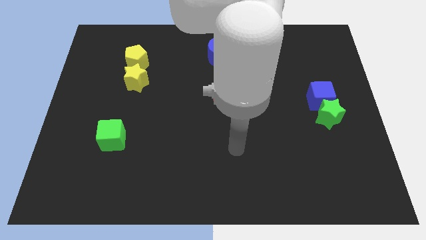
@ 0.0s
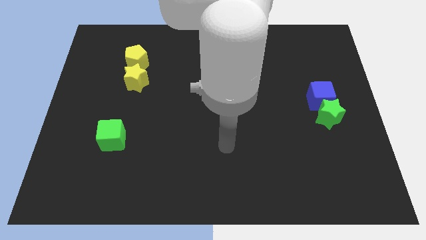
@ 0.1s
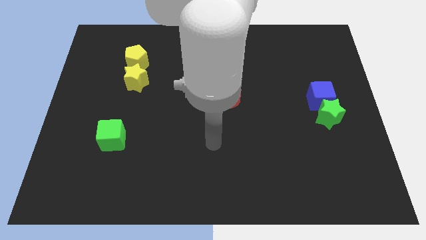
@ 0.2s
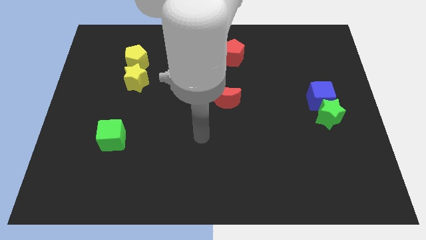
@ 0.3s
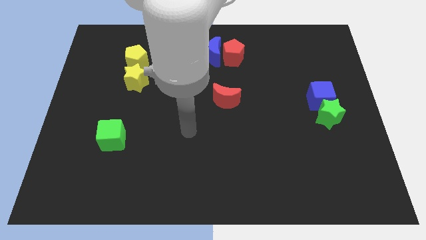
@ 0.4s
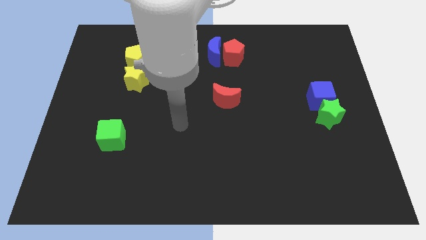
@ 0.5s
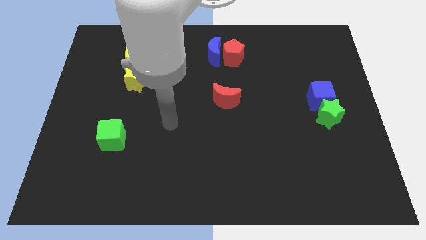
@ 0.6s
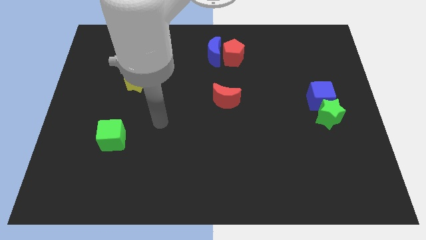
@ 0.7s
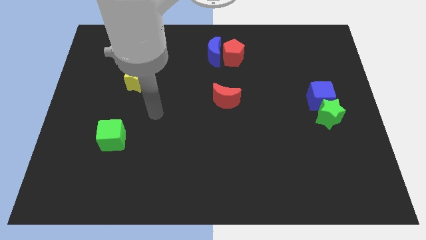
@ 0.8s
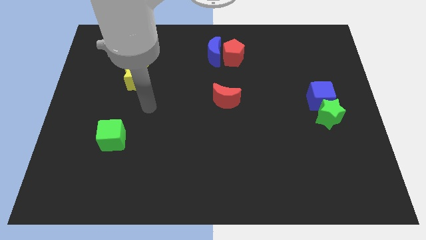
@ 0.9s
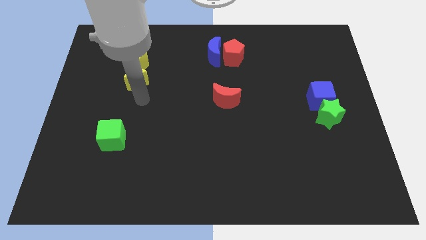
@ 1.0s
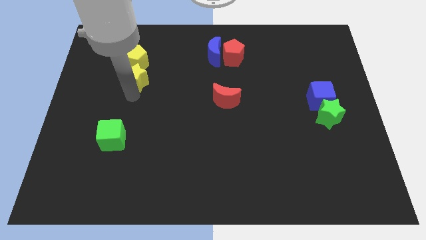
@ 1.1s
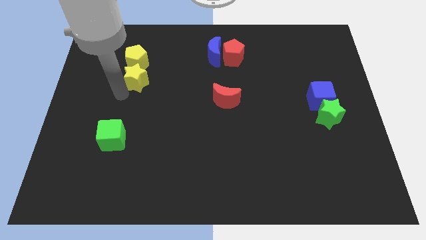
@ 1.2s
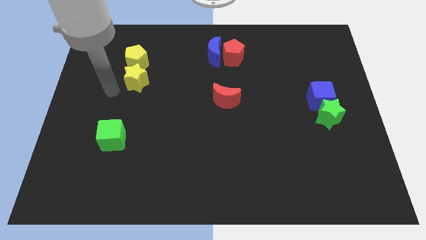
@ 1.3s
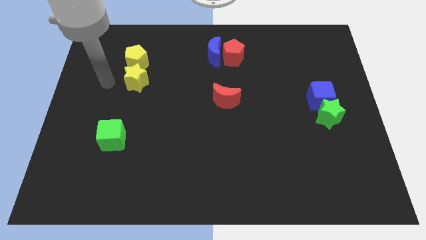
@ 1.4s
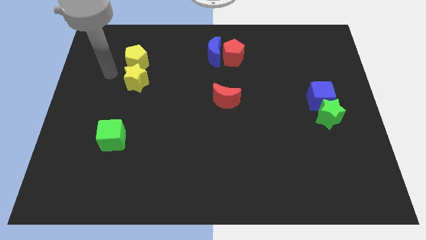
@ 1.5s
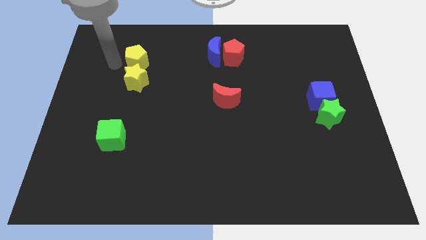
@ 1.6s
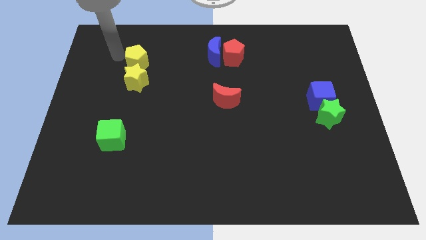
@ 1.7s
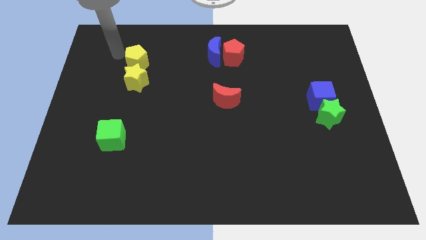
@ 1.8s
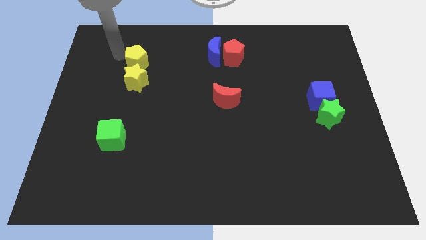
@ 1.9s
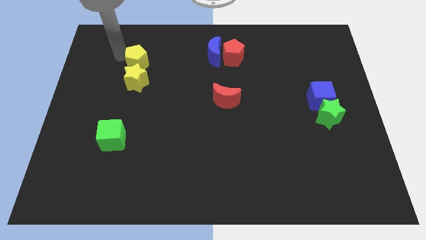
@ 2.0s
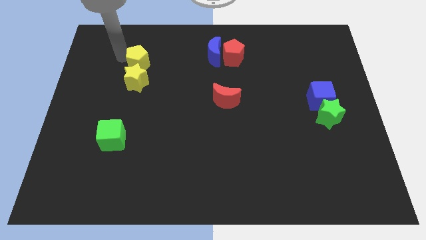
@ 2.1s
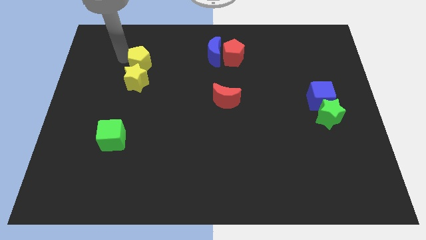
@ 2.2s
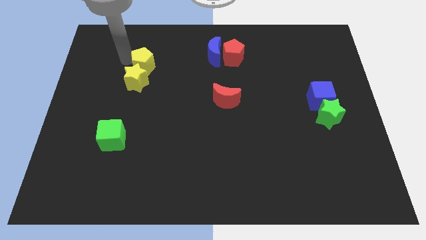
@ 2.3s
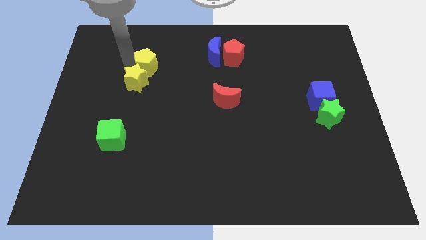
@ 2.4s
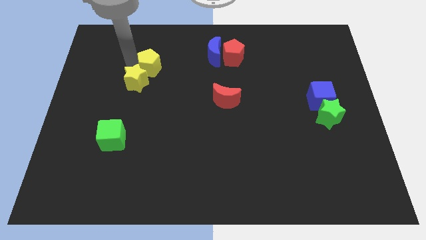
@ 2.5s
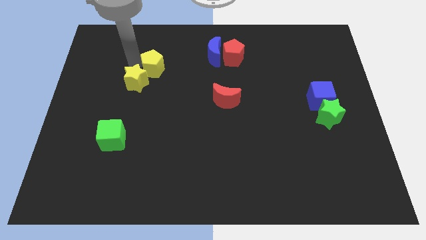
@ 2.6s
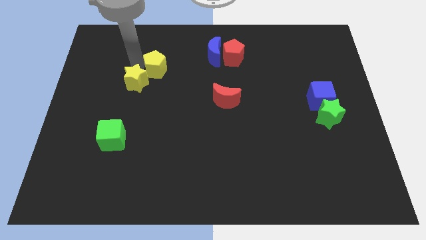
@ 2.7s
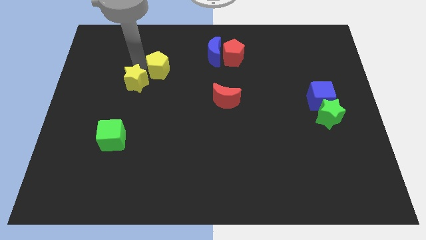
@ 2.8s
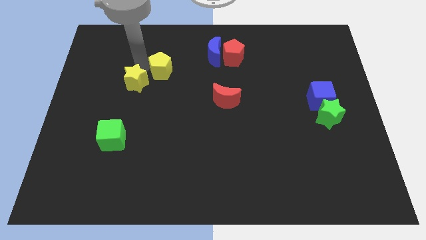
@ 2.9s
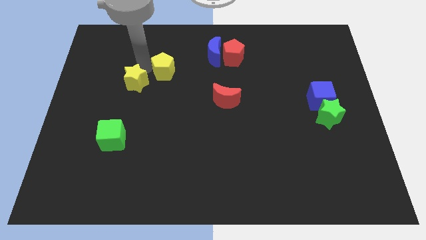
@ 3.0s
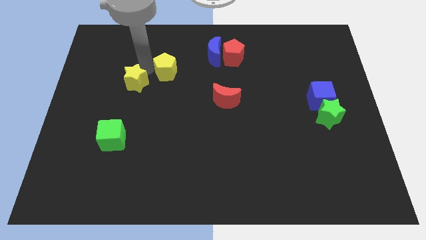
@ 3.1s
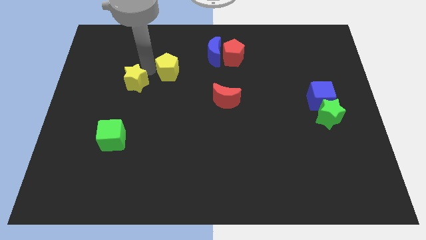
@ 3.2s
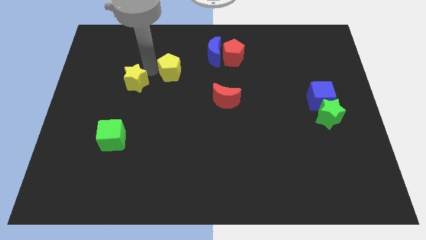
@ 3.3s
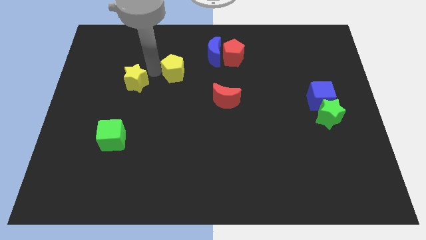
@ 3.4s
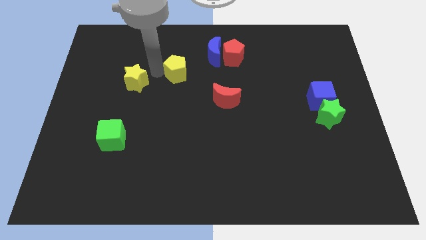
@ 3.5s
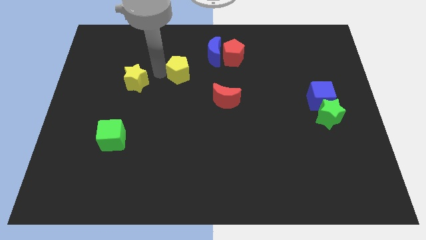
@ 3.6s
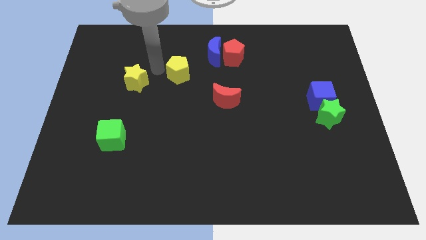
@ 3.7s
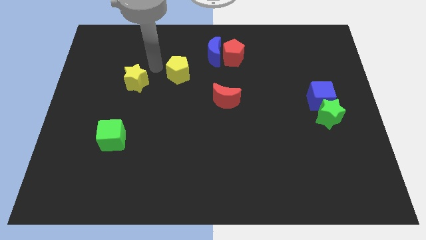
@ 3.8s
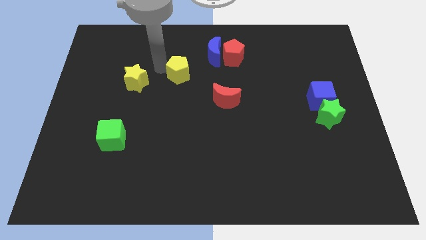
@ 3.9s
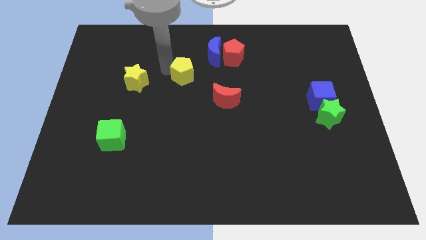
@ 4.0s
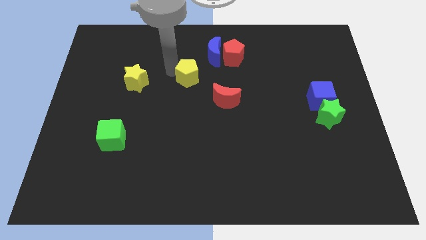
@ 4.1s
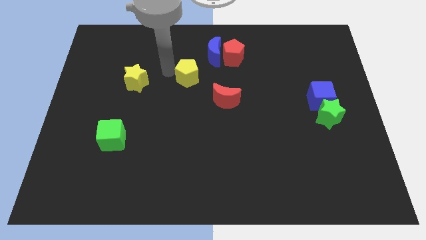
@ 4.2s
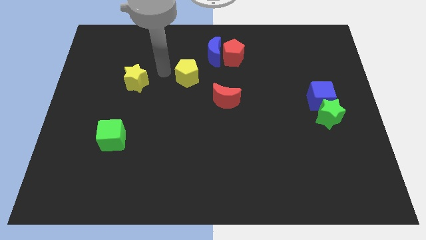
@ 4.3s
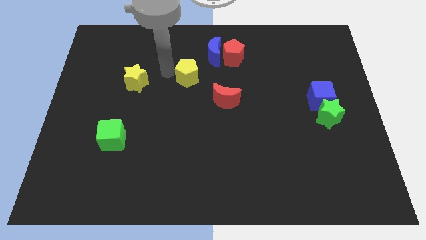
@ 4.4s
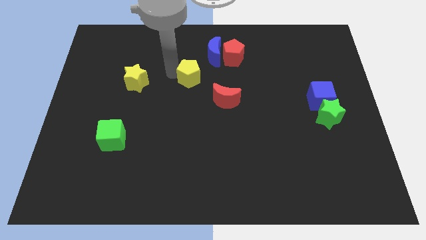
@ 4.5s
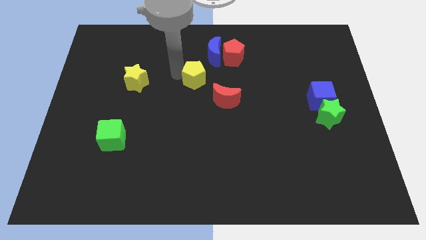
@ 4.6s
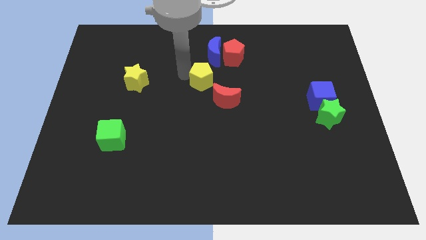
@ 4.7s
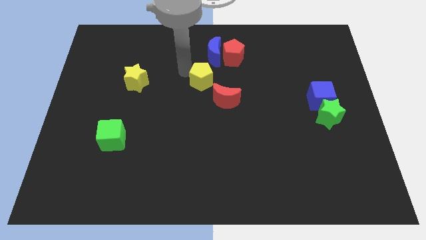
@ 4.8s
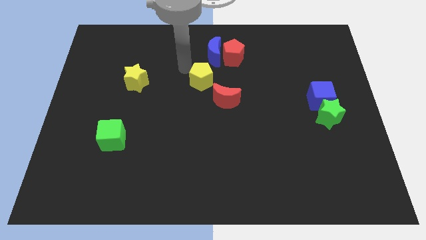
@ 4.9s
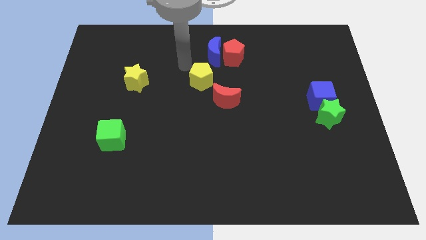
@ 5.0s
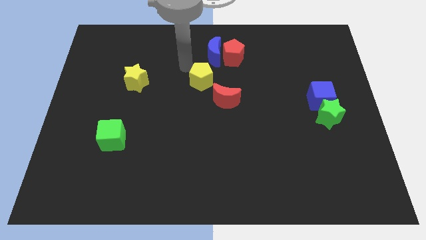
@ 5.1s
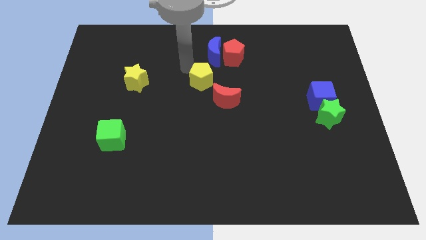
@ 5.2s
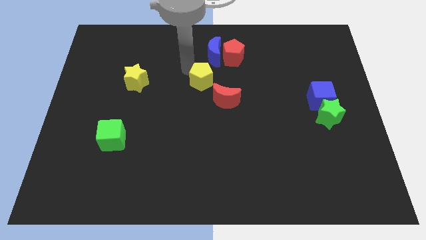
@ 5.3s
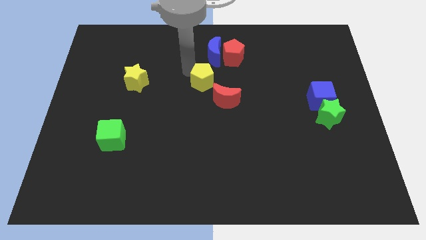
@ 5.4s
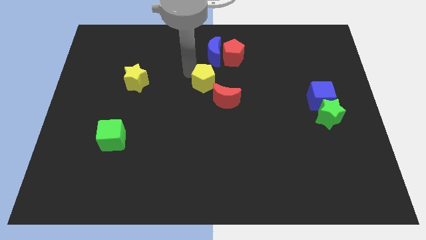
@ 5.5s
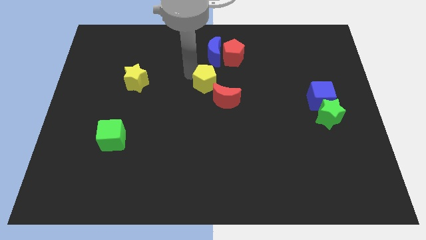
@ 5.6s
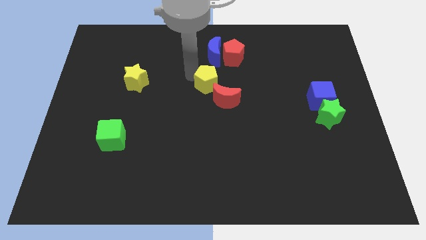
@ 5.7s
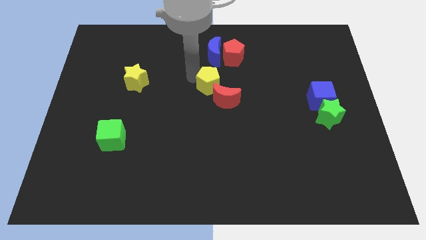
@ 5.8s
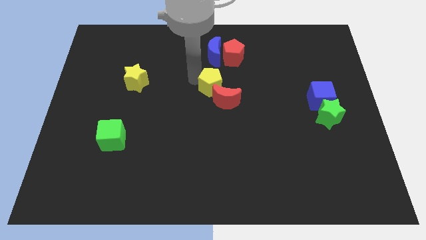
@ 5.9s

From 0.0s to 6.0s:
push the yellow pentagon to the red moon

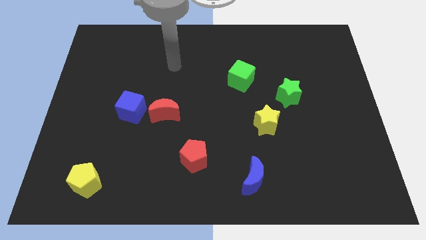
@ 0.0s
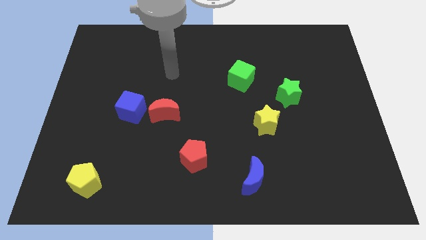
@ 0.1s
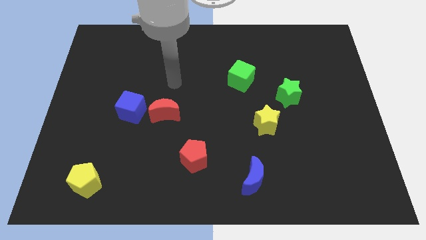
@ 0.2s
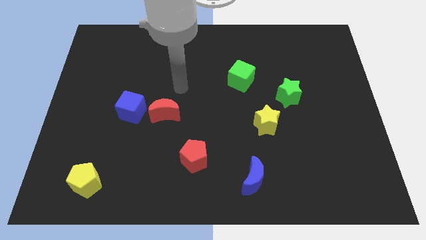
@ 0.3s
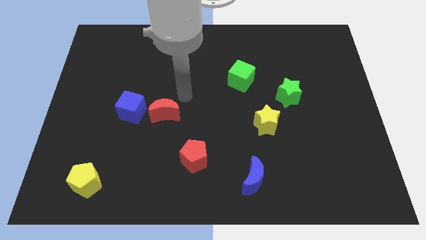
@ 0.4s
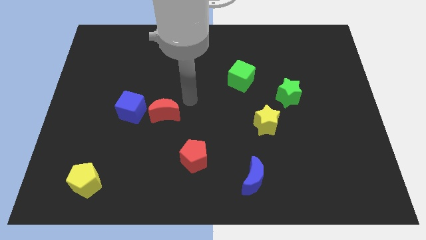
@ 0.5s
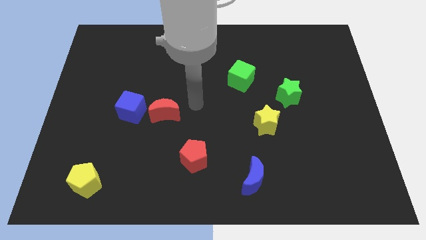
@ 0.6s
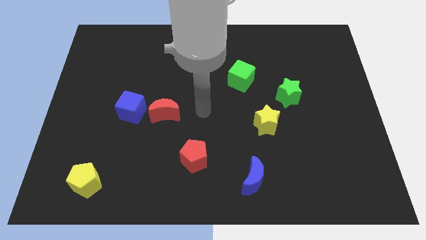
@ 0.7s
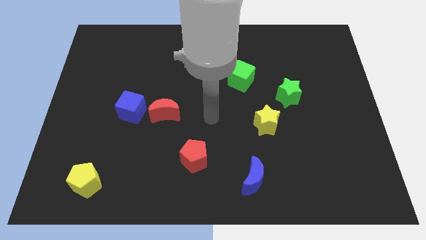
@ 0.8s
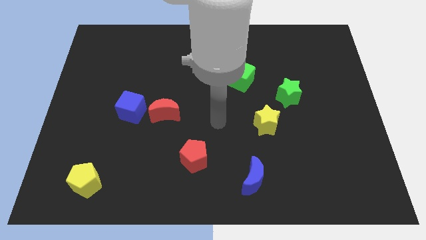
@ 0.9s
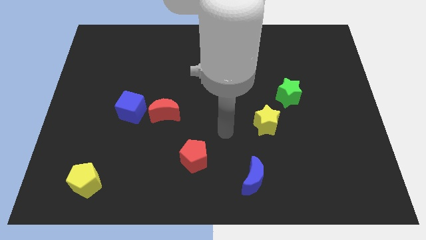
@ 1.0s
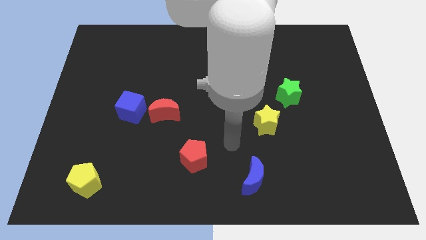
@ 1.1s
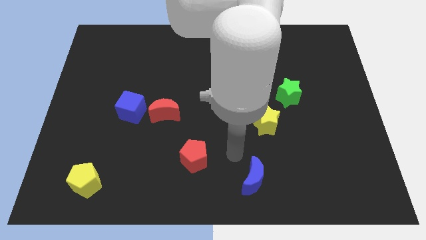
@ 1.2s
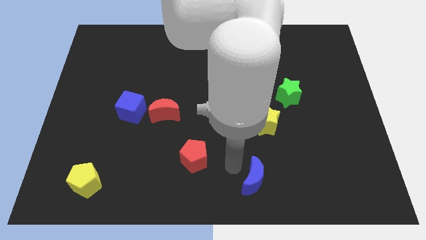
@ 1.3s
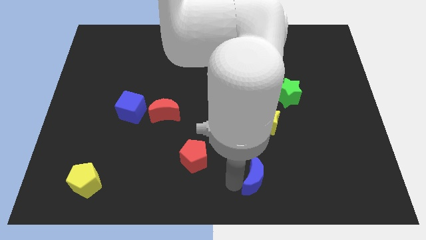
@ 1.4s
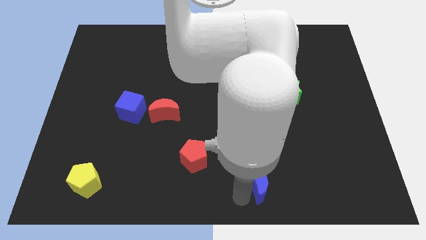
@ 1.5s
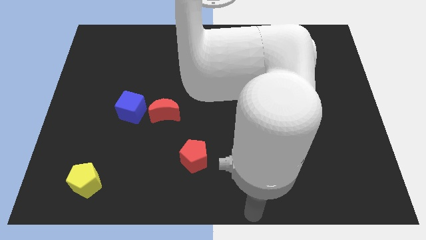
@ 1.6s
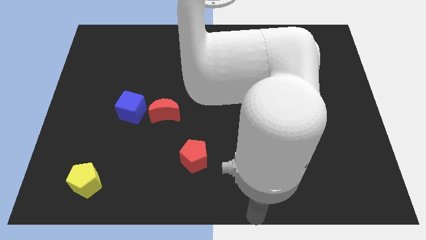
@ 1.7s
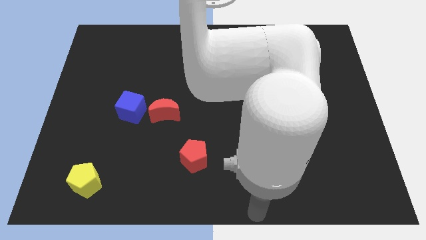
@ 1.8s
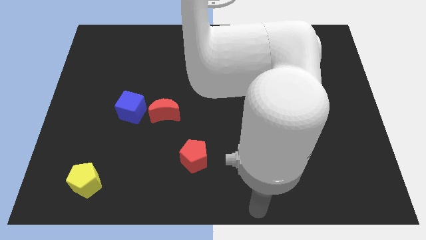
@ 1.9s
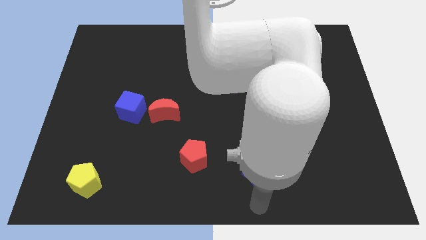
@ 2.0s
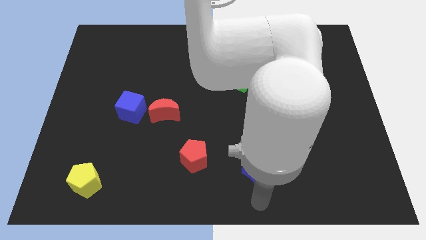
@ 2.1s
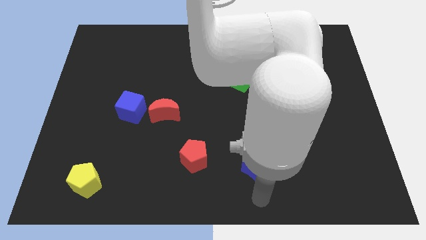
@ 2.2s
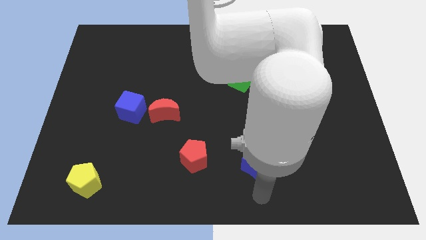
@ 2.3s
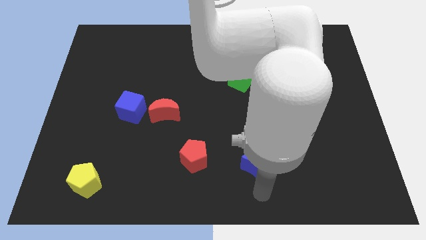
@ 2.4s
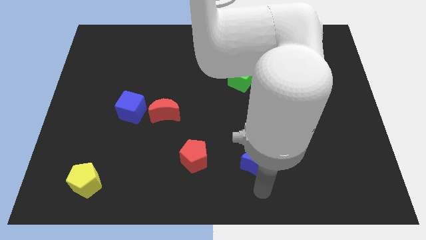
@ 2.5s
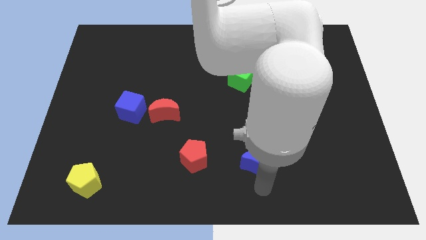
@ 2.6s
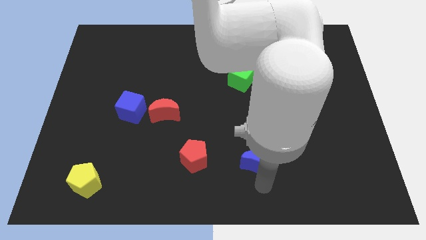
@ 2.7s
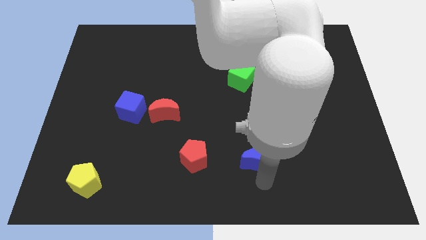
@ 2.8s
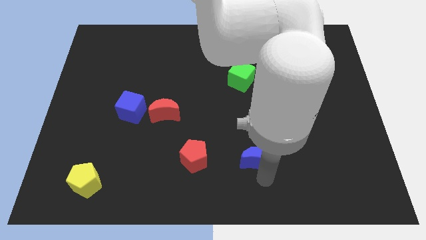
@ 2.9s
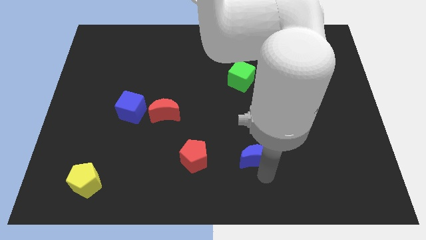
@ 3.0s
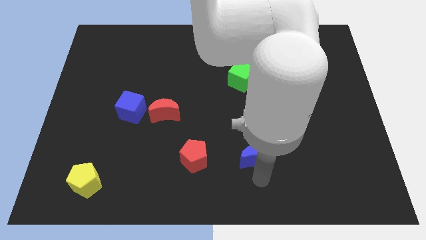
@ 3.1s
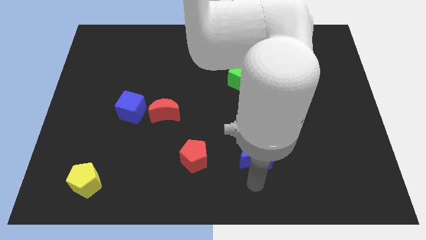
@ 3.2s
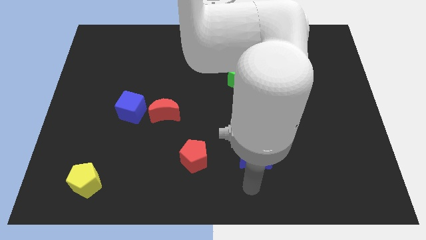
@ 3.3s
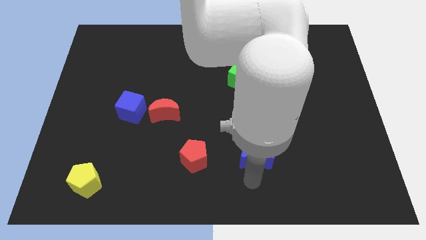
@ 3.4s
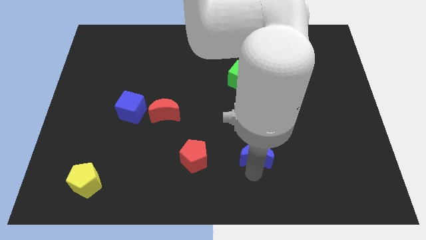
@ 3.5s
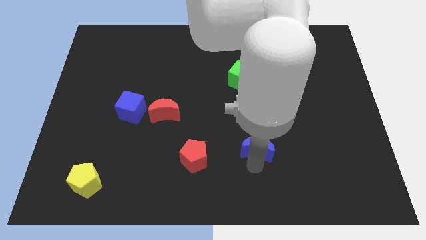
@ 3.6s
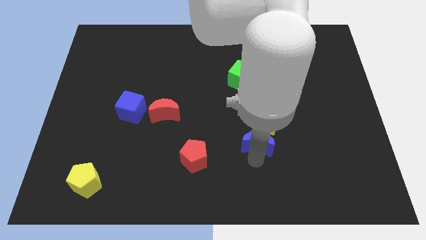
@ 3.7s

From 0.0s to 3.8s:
put the blue moon close to the yellow star
